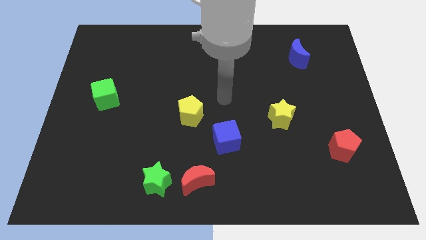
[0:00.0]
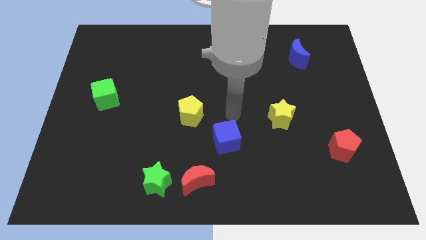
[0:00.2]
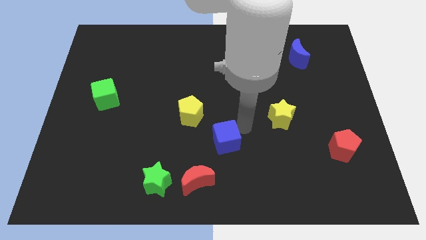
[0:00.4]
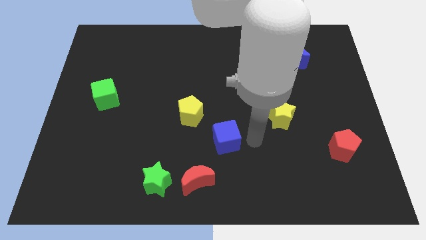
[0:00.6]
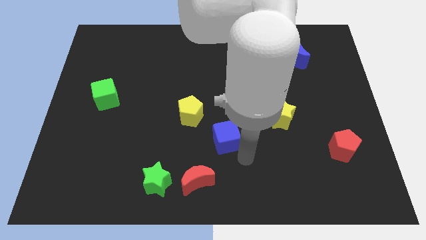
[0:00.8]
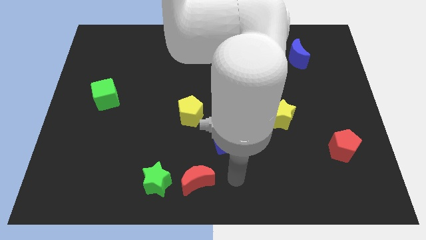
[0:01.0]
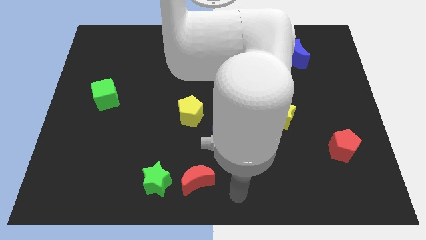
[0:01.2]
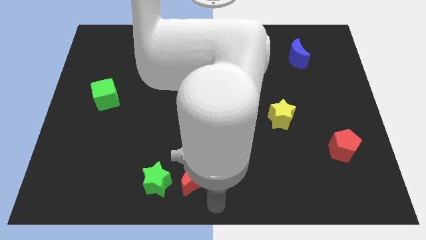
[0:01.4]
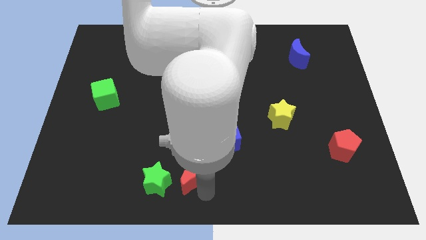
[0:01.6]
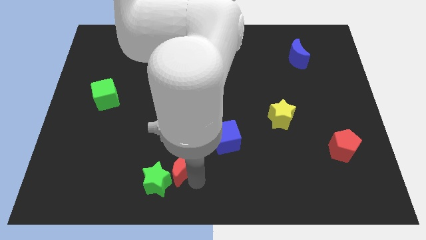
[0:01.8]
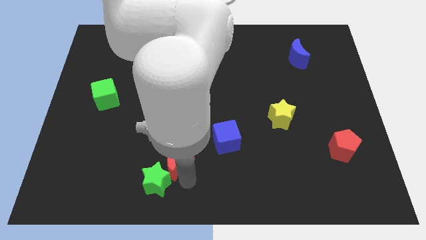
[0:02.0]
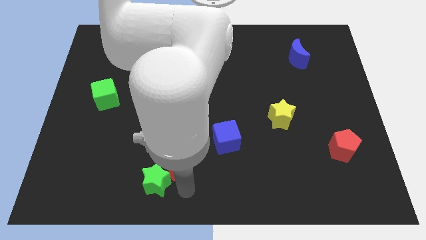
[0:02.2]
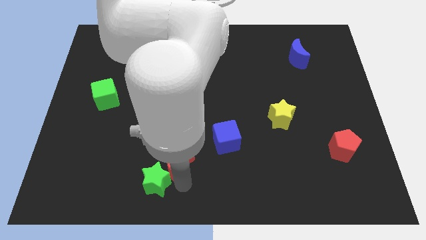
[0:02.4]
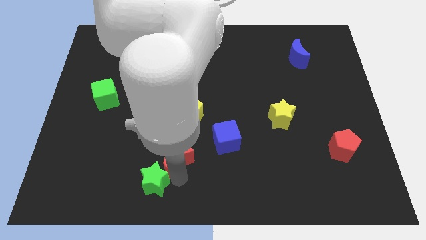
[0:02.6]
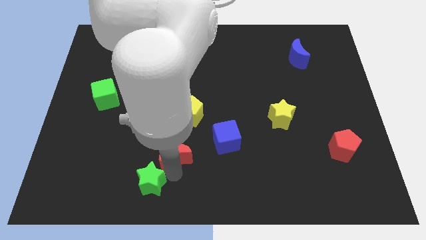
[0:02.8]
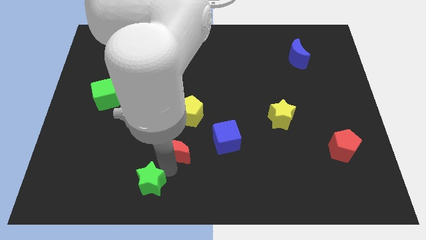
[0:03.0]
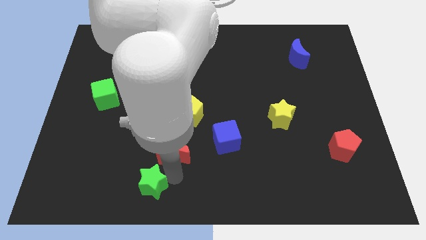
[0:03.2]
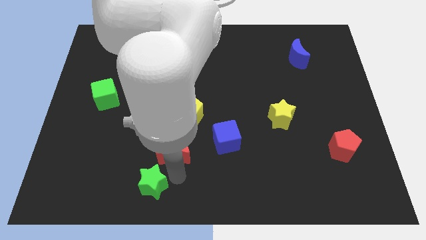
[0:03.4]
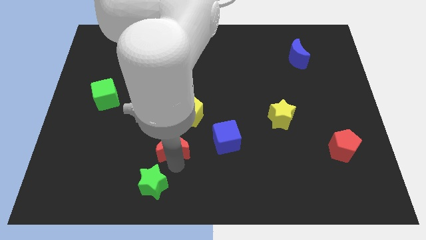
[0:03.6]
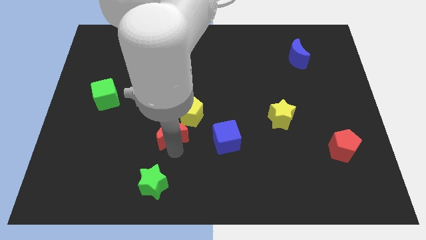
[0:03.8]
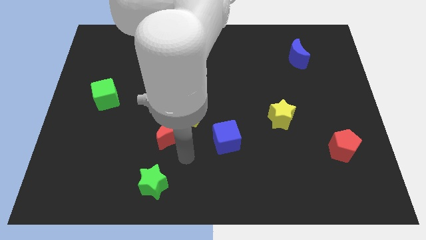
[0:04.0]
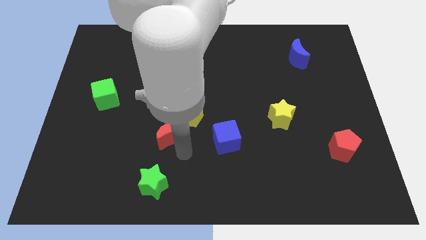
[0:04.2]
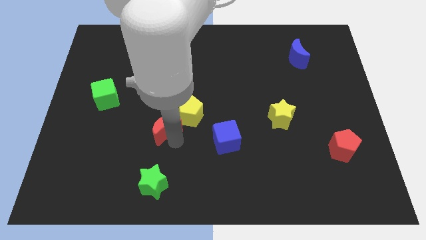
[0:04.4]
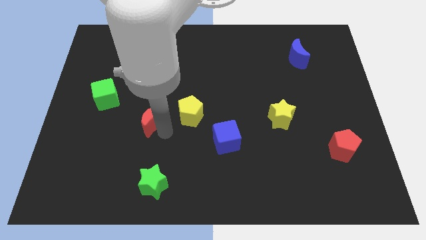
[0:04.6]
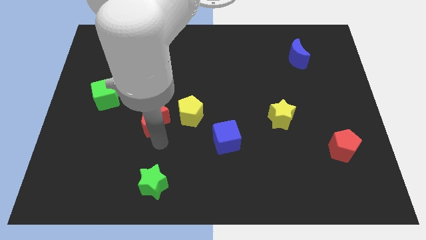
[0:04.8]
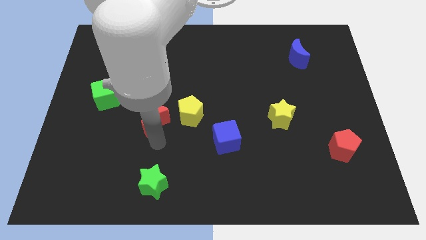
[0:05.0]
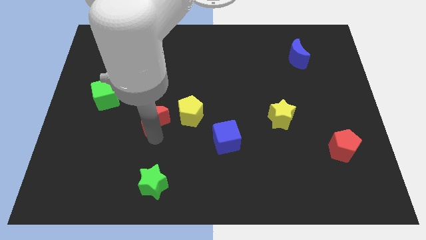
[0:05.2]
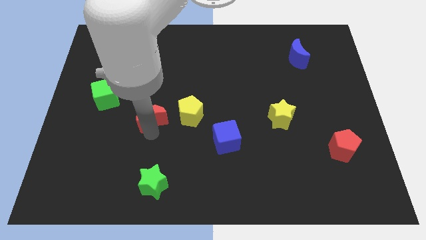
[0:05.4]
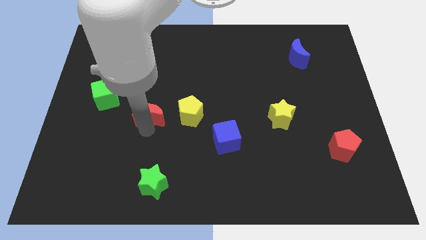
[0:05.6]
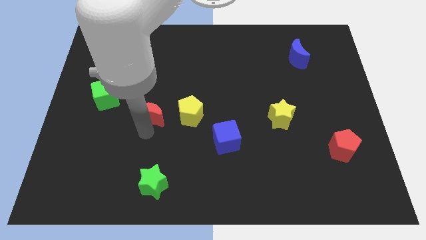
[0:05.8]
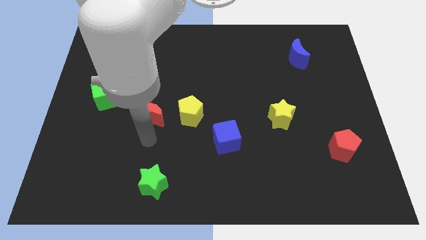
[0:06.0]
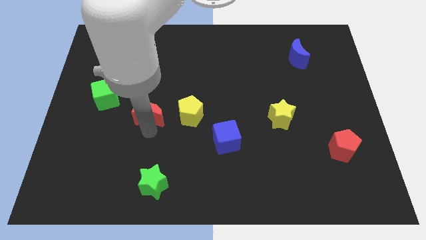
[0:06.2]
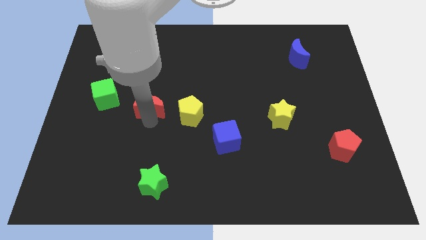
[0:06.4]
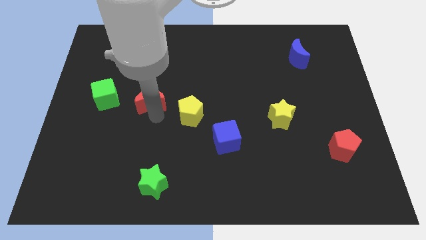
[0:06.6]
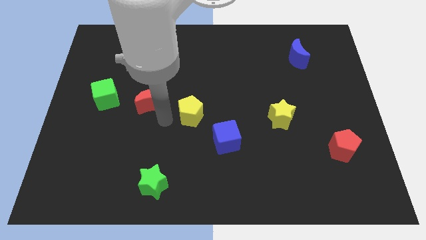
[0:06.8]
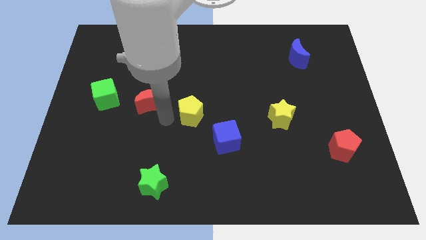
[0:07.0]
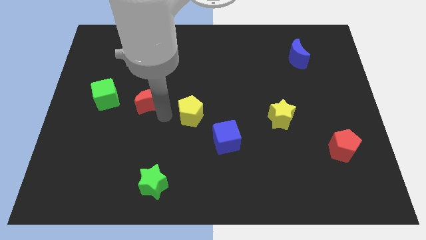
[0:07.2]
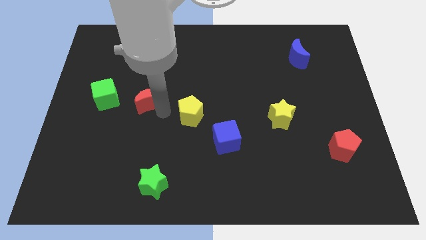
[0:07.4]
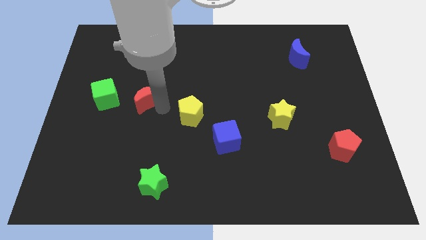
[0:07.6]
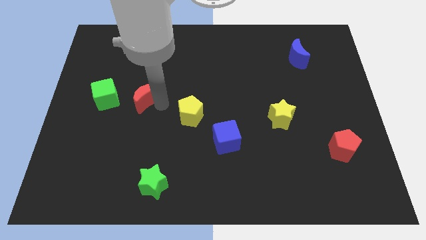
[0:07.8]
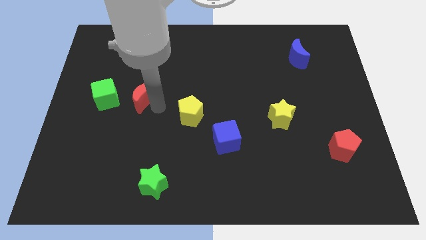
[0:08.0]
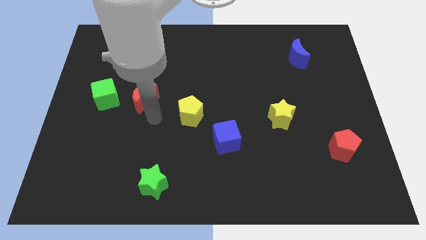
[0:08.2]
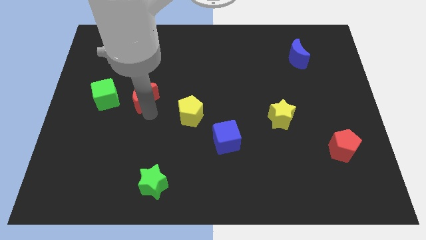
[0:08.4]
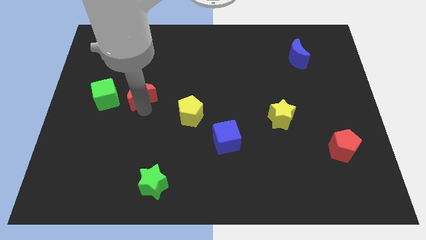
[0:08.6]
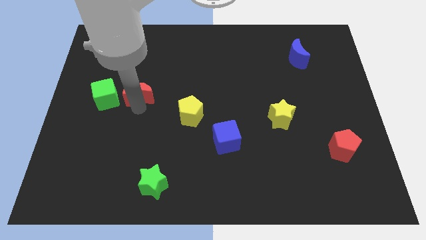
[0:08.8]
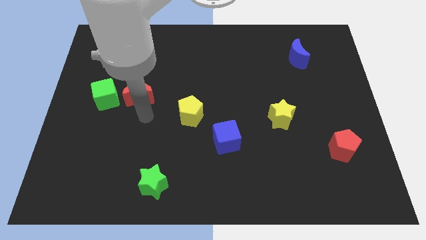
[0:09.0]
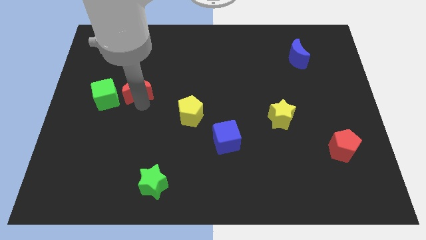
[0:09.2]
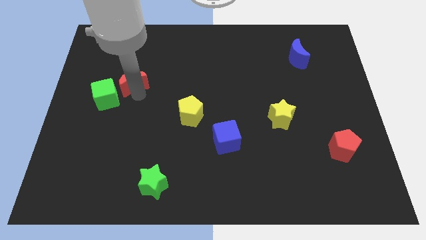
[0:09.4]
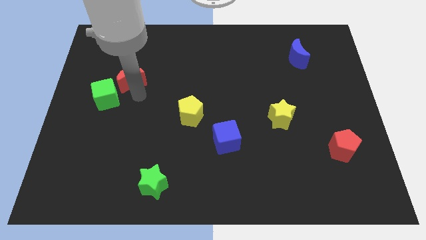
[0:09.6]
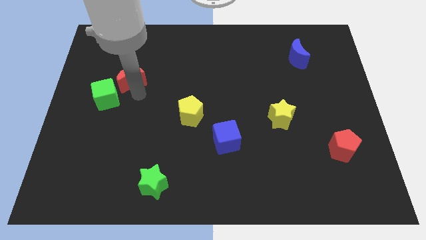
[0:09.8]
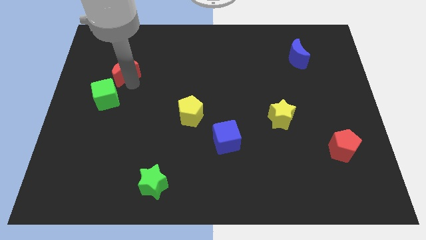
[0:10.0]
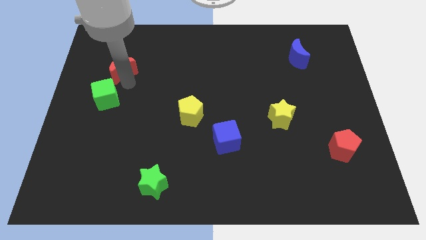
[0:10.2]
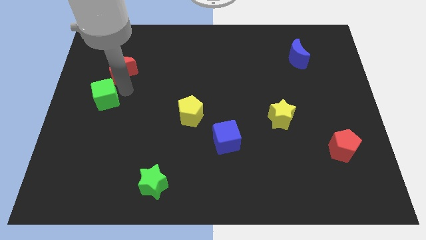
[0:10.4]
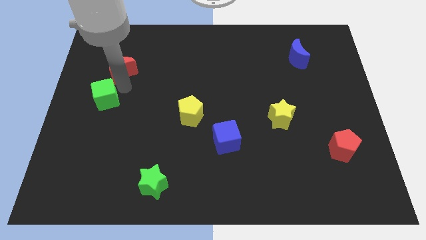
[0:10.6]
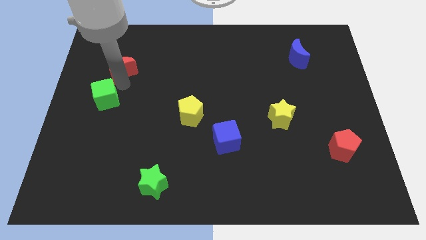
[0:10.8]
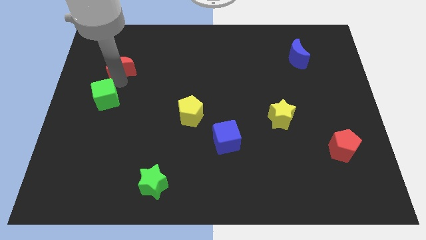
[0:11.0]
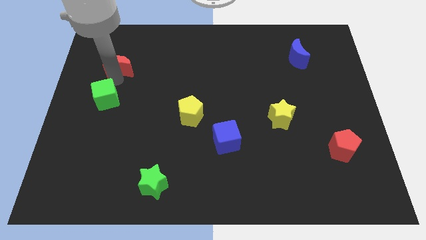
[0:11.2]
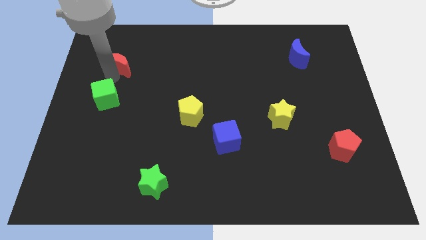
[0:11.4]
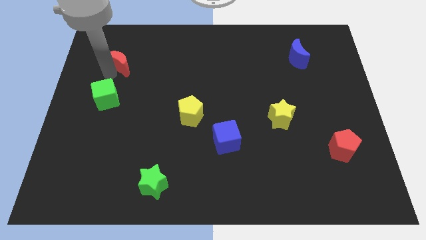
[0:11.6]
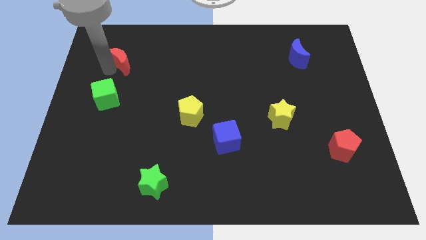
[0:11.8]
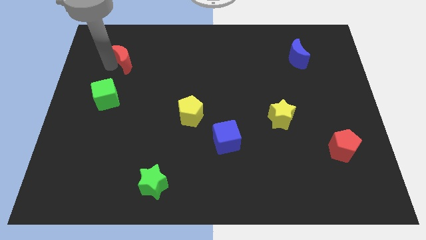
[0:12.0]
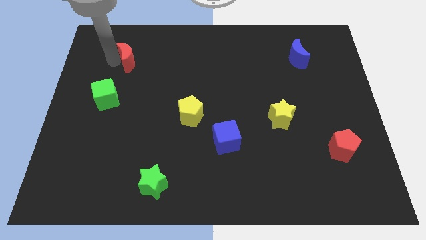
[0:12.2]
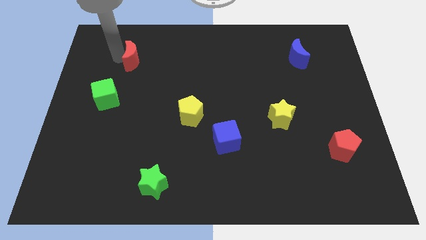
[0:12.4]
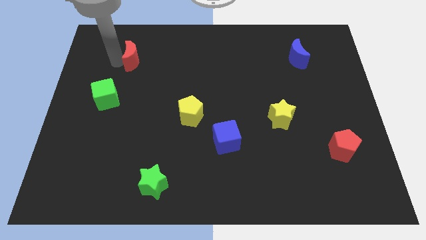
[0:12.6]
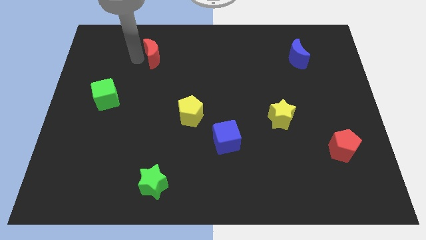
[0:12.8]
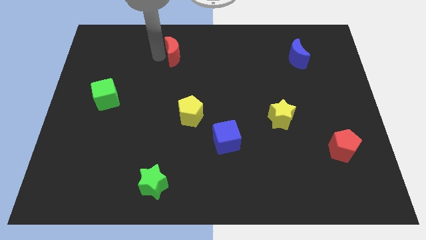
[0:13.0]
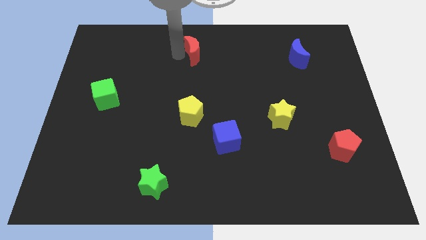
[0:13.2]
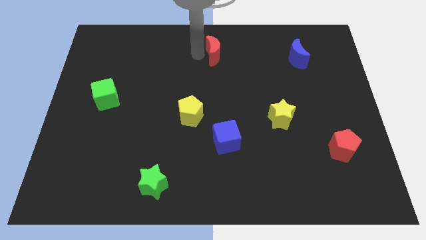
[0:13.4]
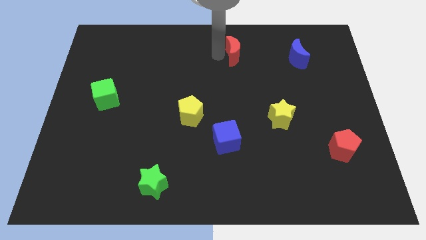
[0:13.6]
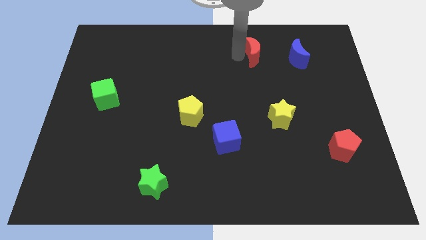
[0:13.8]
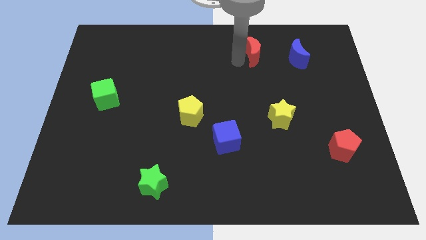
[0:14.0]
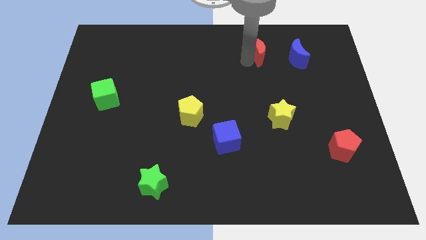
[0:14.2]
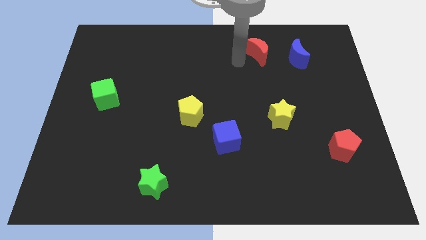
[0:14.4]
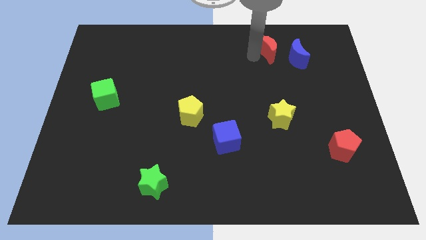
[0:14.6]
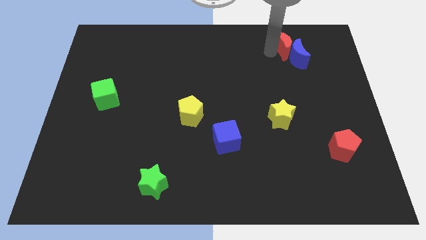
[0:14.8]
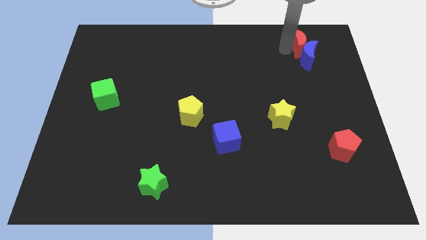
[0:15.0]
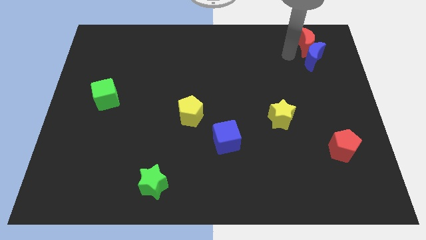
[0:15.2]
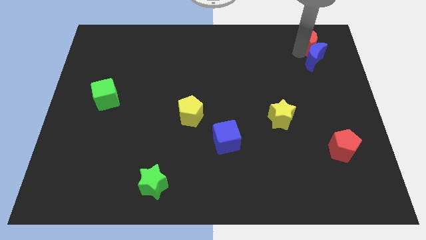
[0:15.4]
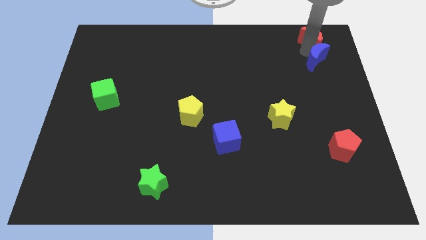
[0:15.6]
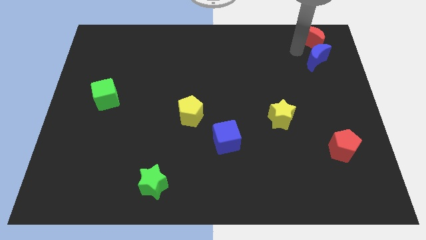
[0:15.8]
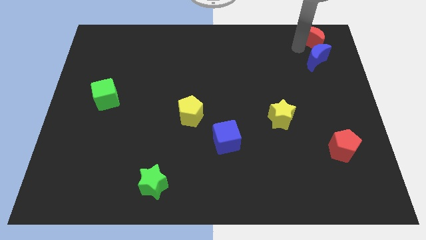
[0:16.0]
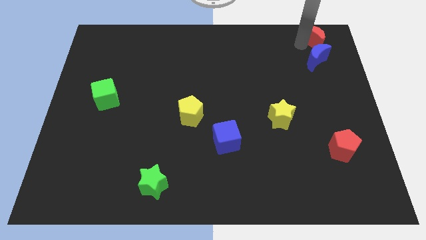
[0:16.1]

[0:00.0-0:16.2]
slide the red moon to the top right of the board
